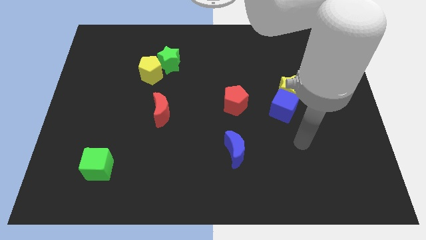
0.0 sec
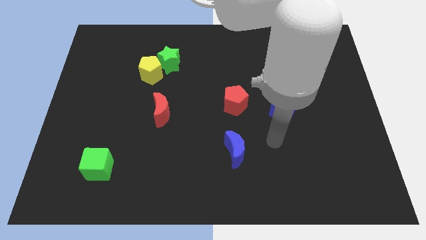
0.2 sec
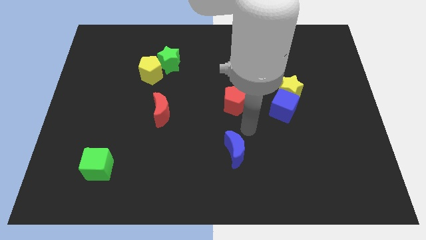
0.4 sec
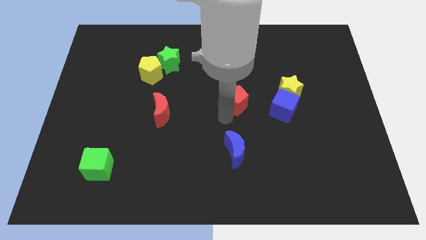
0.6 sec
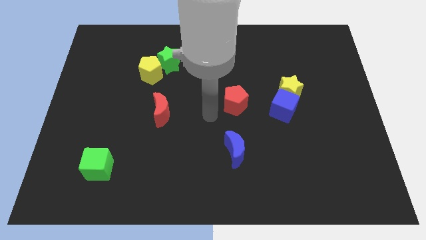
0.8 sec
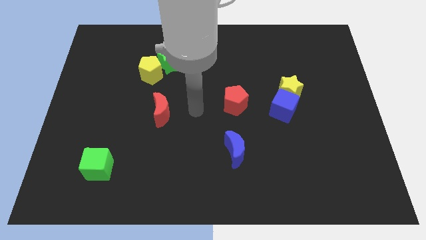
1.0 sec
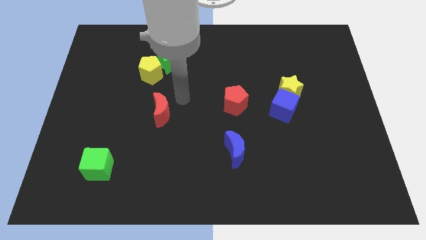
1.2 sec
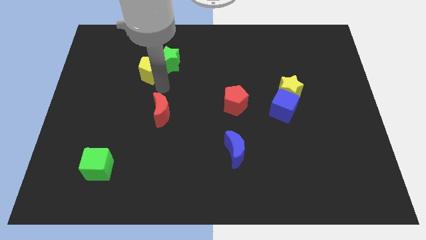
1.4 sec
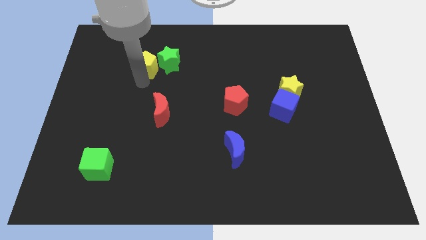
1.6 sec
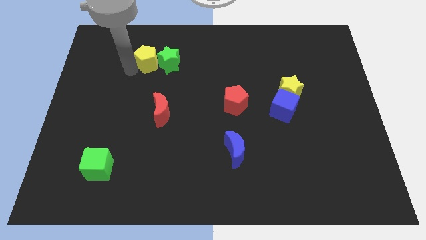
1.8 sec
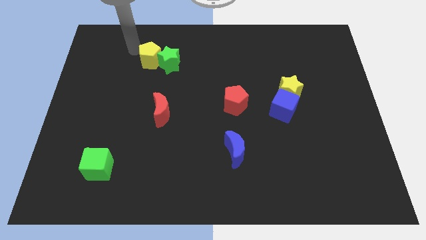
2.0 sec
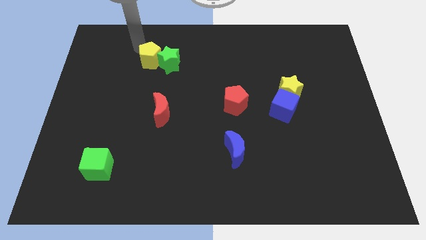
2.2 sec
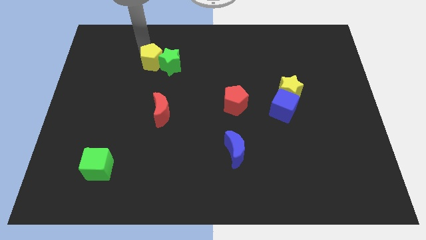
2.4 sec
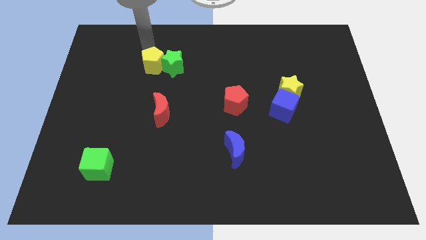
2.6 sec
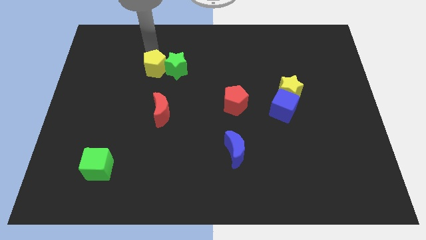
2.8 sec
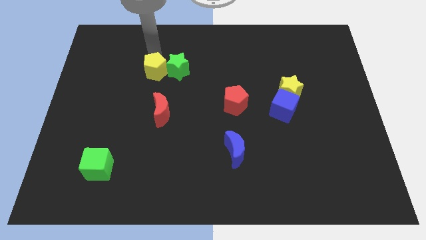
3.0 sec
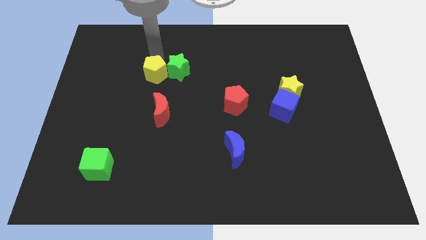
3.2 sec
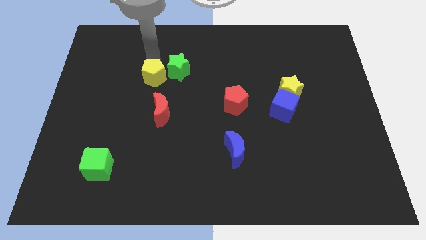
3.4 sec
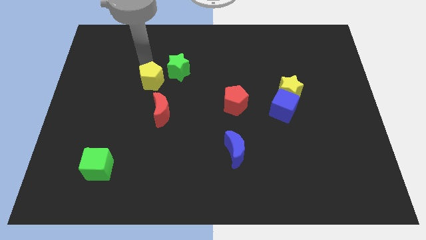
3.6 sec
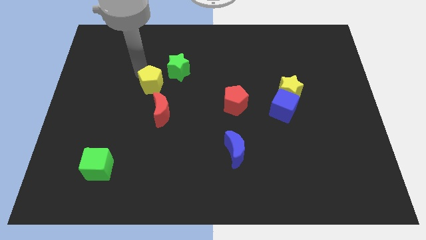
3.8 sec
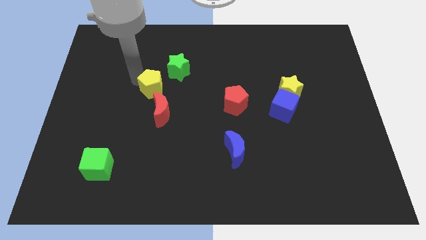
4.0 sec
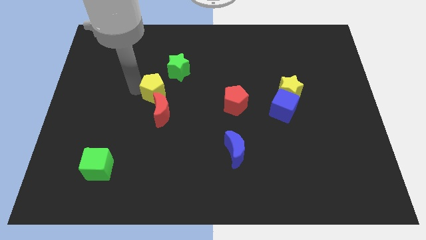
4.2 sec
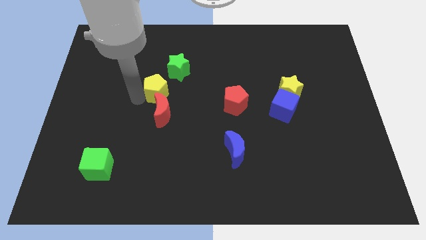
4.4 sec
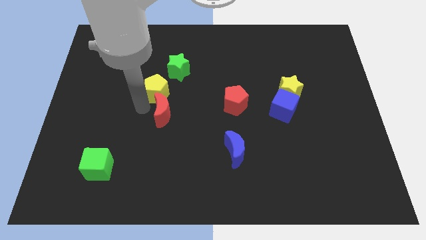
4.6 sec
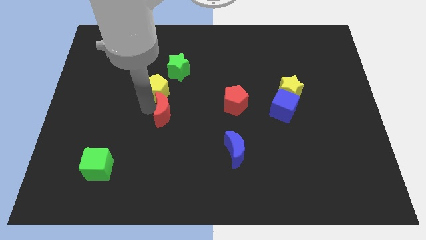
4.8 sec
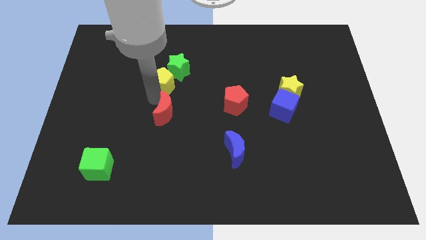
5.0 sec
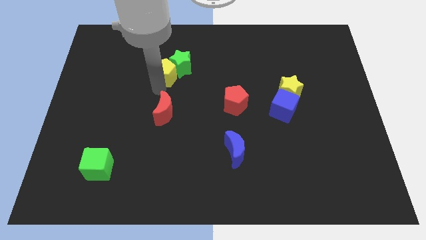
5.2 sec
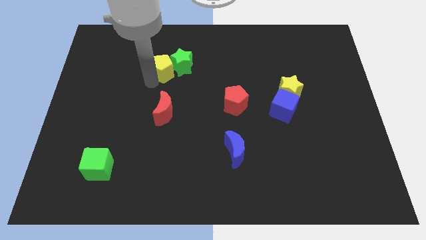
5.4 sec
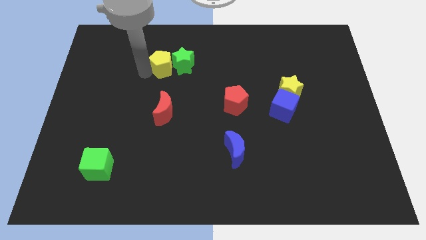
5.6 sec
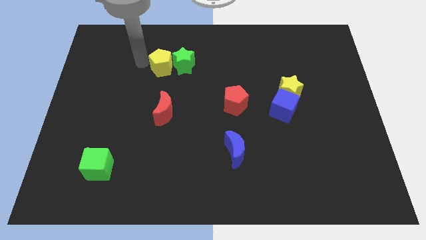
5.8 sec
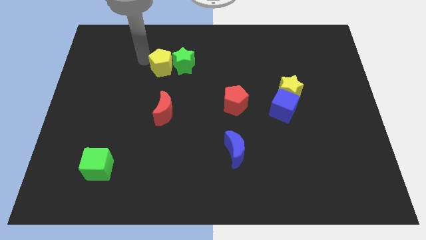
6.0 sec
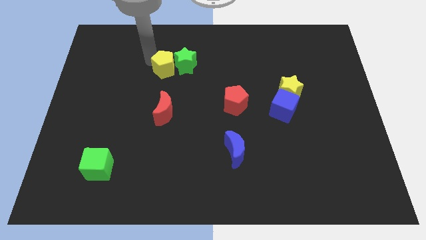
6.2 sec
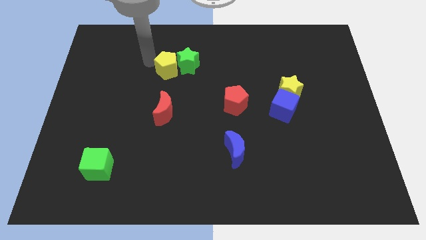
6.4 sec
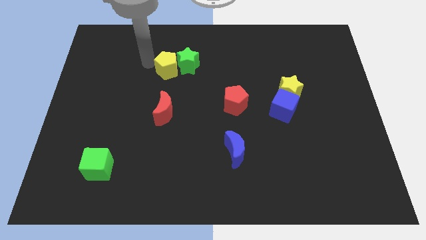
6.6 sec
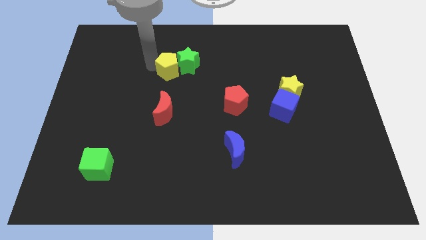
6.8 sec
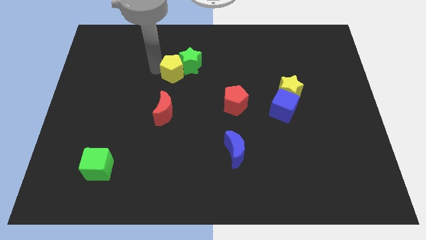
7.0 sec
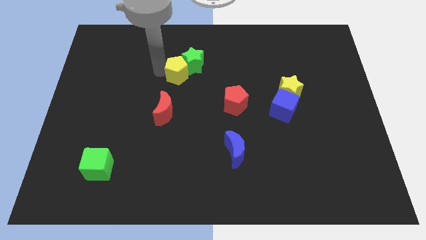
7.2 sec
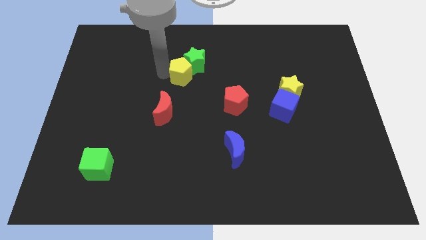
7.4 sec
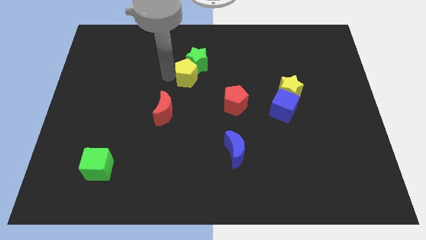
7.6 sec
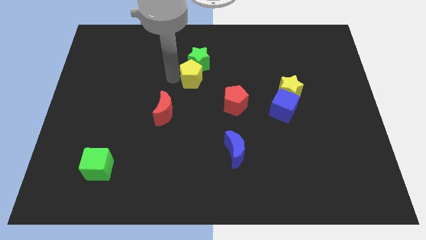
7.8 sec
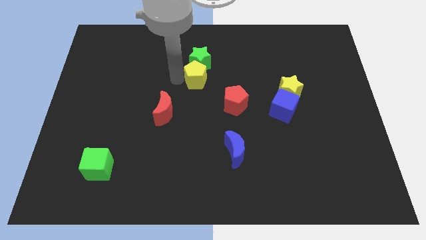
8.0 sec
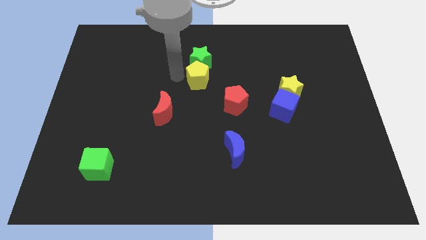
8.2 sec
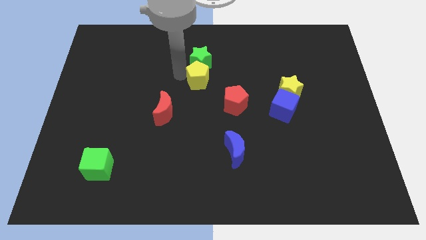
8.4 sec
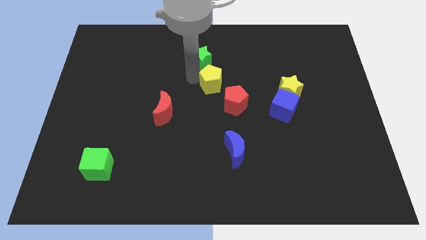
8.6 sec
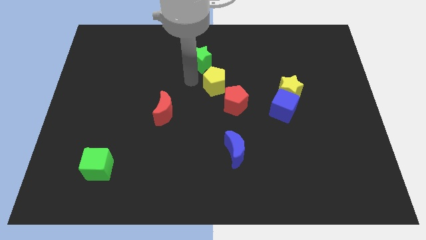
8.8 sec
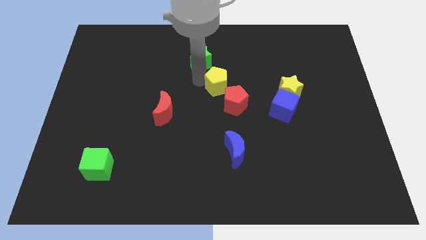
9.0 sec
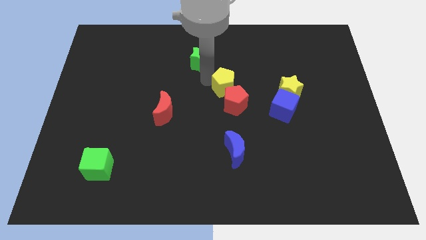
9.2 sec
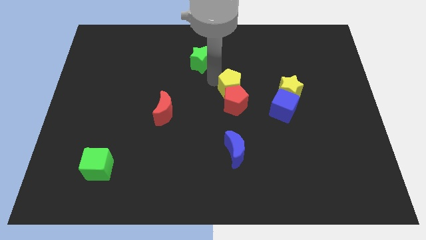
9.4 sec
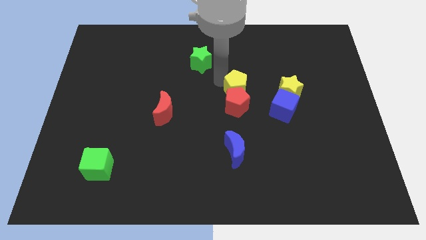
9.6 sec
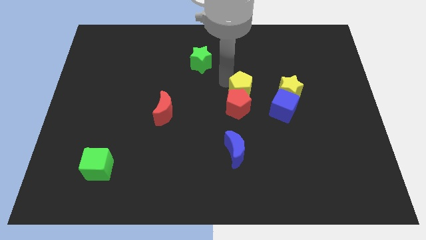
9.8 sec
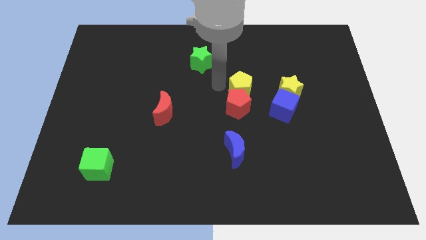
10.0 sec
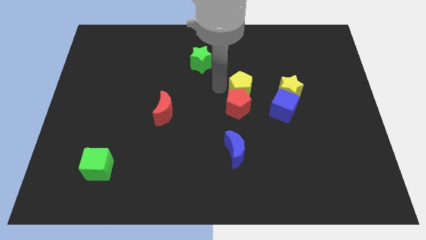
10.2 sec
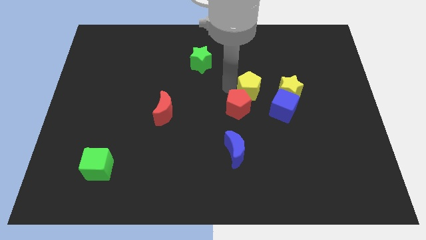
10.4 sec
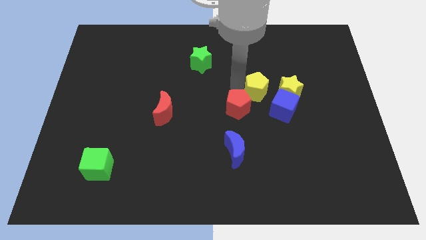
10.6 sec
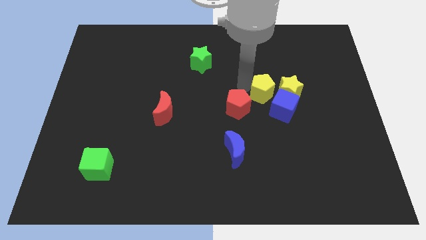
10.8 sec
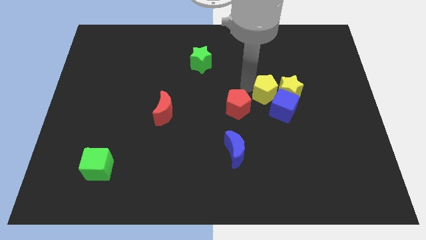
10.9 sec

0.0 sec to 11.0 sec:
slide the yellow pentagon close to the blue cube
